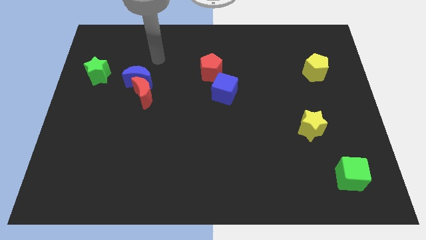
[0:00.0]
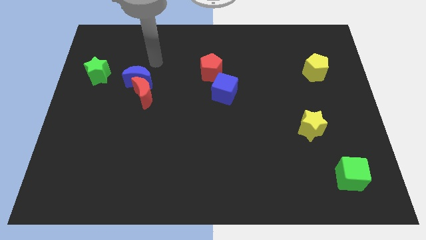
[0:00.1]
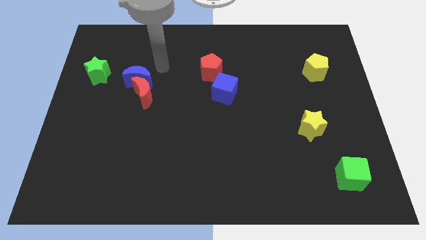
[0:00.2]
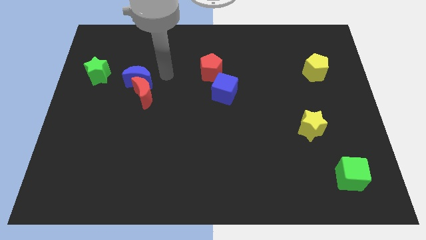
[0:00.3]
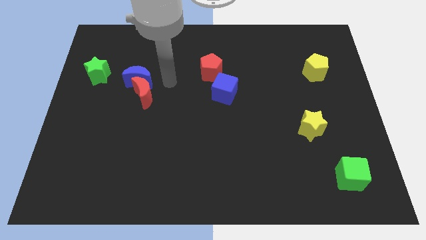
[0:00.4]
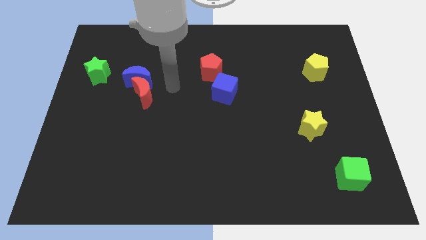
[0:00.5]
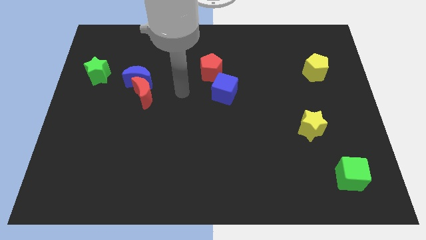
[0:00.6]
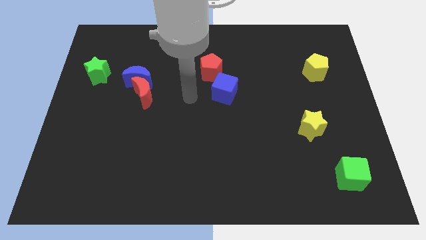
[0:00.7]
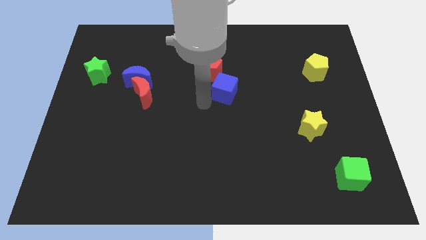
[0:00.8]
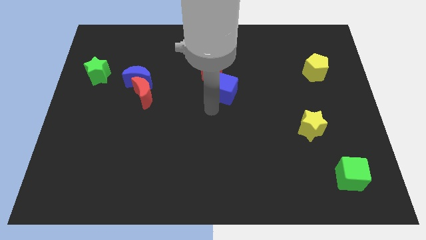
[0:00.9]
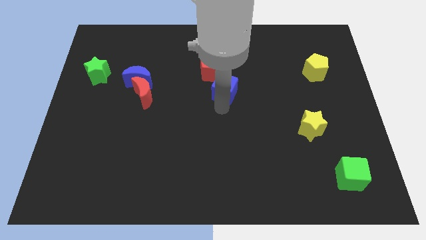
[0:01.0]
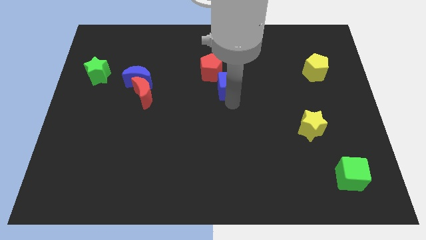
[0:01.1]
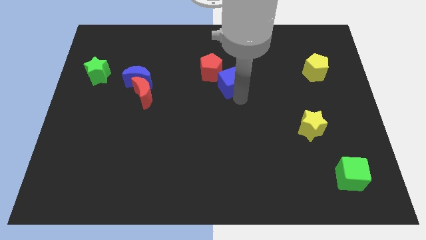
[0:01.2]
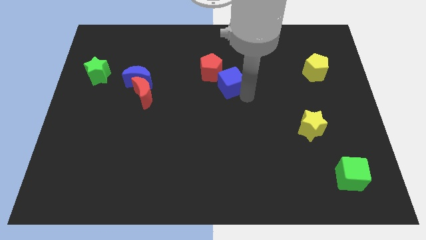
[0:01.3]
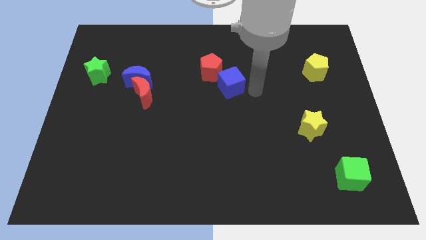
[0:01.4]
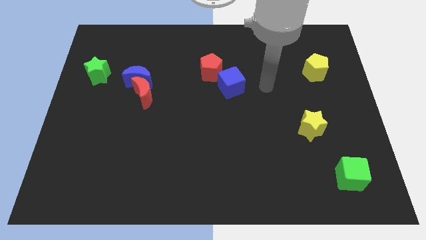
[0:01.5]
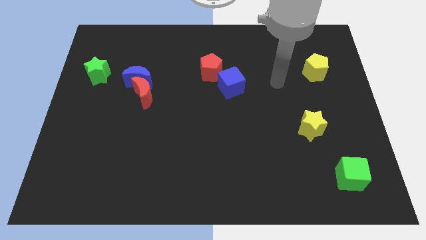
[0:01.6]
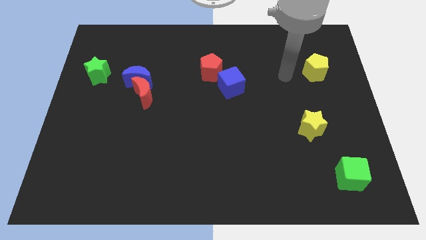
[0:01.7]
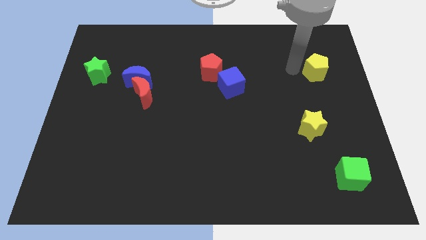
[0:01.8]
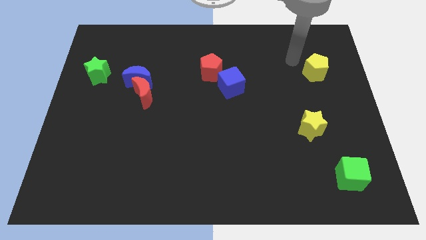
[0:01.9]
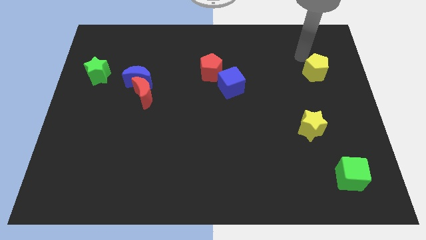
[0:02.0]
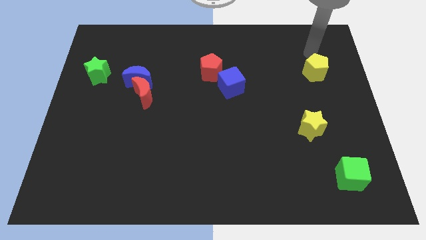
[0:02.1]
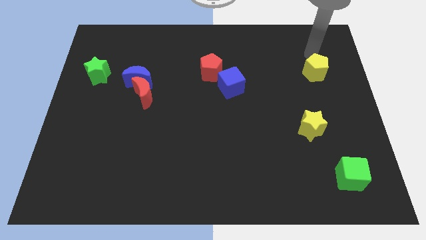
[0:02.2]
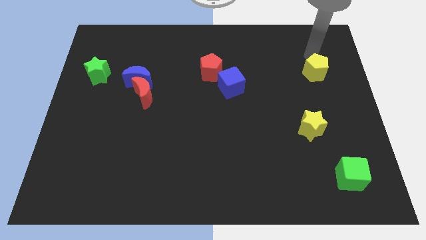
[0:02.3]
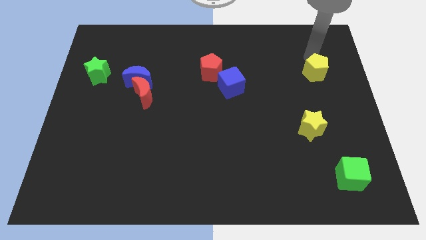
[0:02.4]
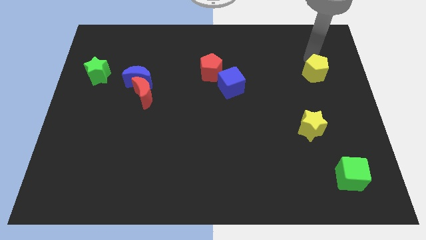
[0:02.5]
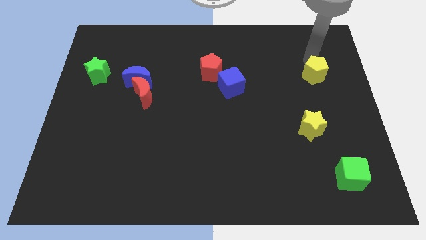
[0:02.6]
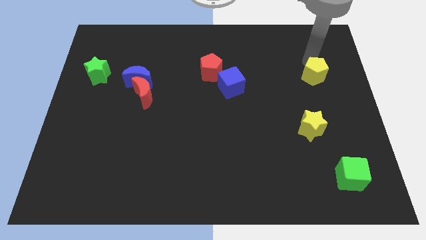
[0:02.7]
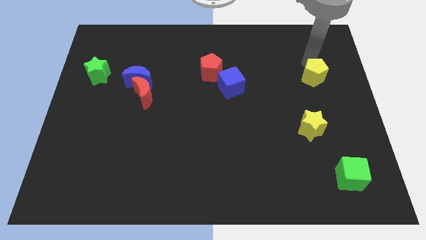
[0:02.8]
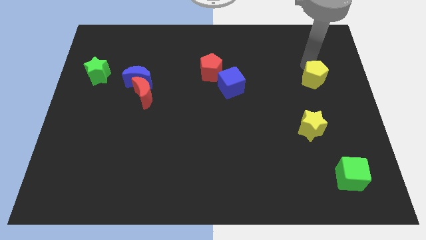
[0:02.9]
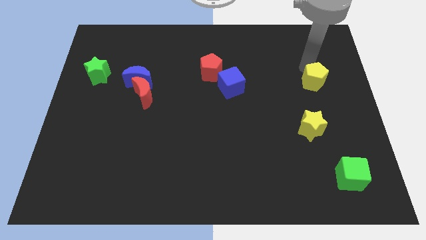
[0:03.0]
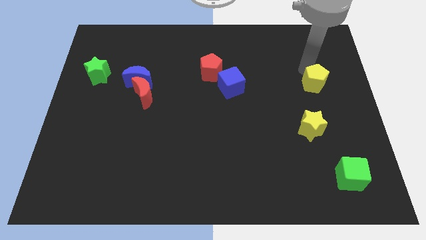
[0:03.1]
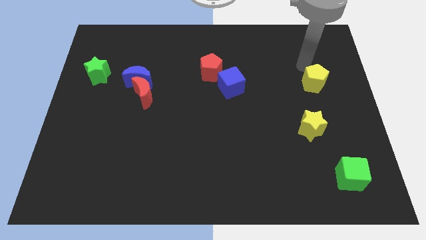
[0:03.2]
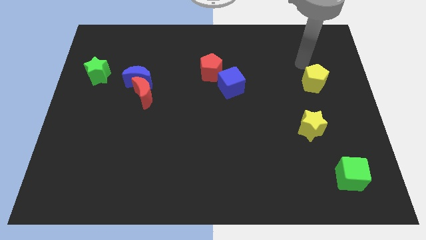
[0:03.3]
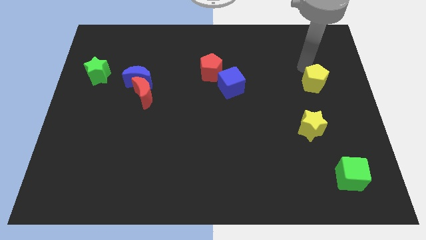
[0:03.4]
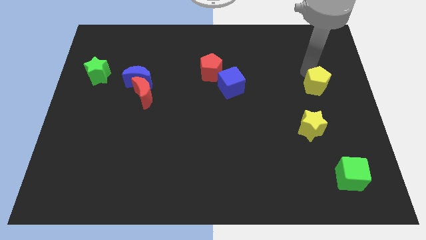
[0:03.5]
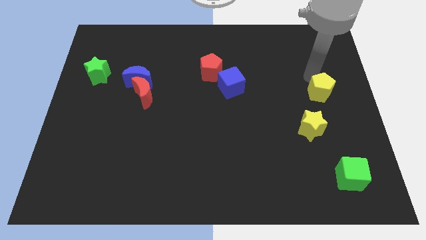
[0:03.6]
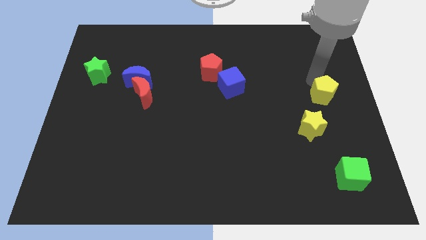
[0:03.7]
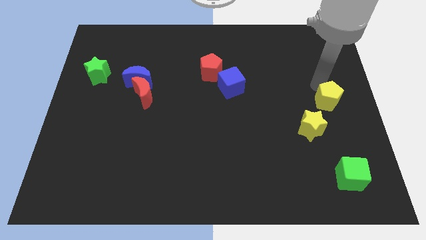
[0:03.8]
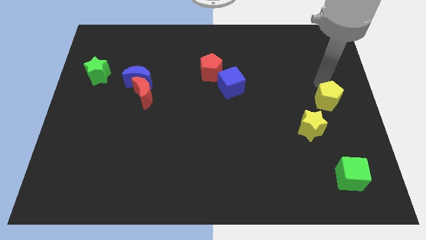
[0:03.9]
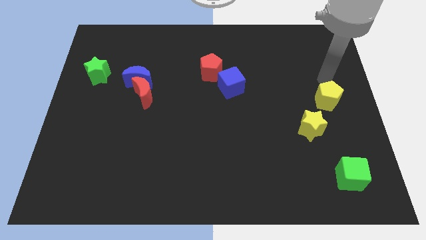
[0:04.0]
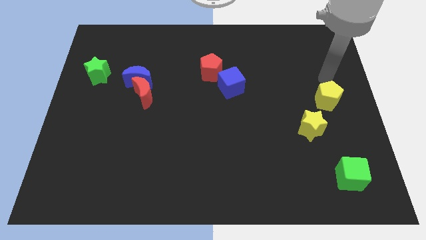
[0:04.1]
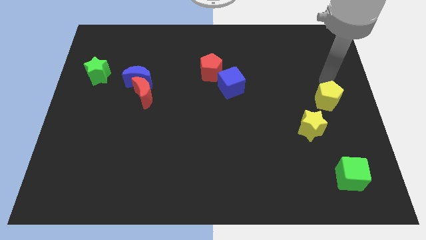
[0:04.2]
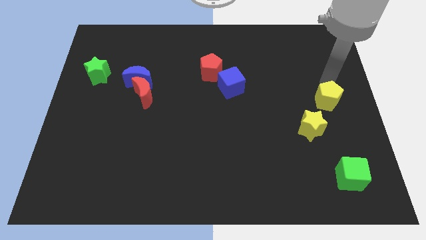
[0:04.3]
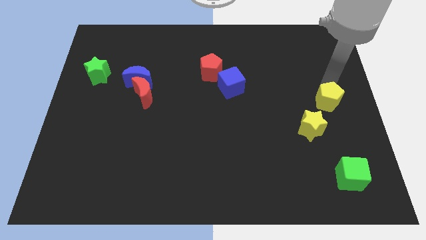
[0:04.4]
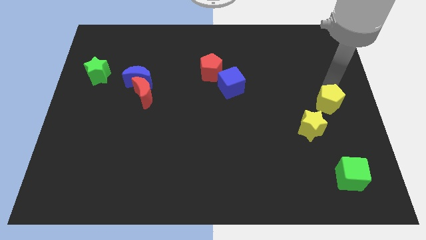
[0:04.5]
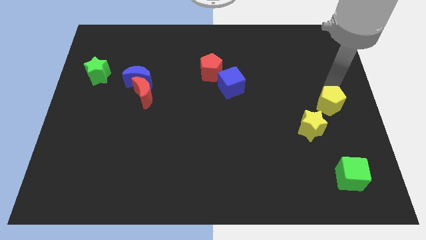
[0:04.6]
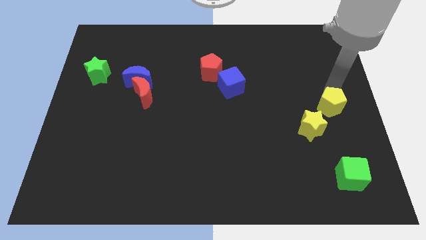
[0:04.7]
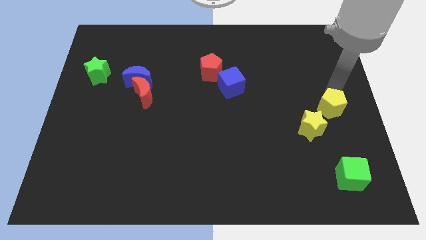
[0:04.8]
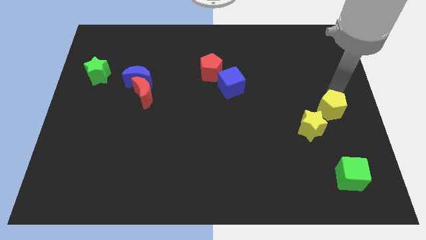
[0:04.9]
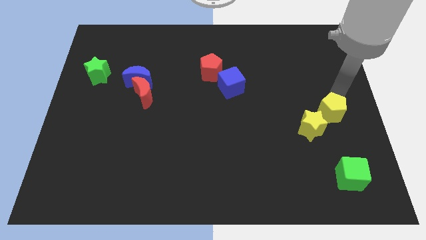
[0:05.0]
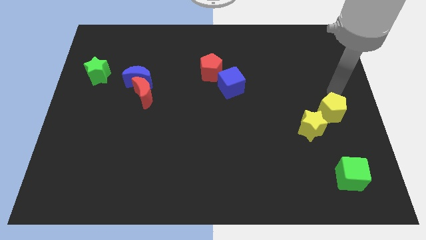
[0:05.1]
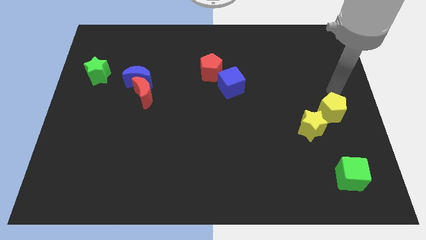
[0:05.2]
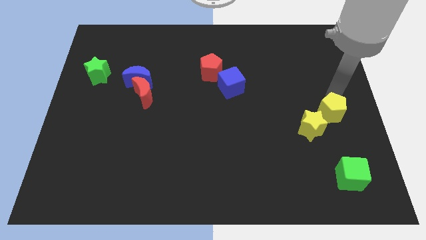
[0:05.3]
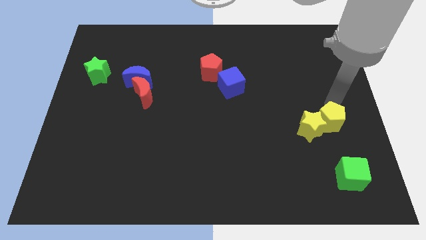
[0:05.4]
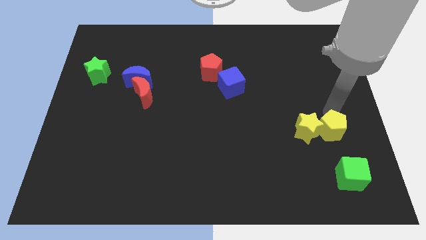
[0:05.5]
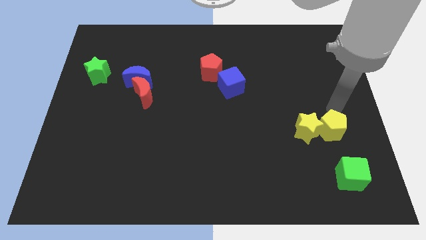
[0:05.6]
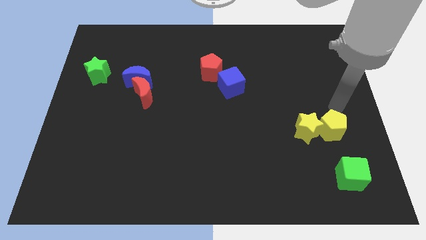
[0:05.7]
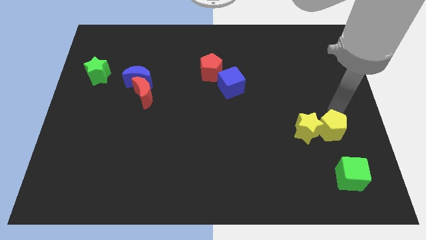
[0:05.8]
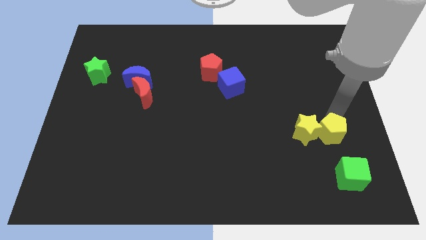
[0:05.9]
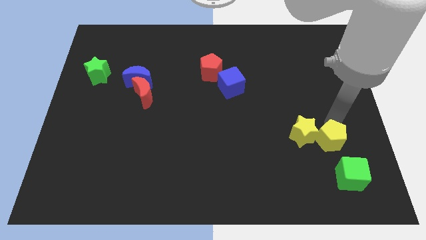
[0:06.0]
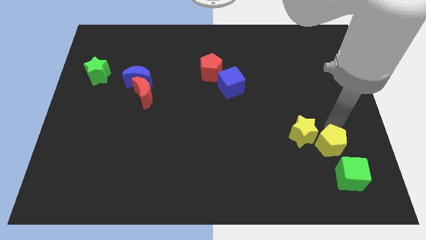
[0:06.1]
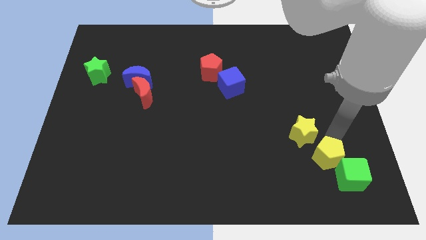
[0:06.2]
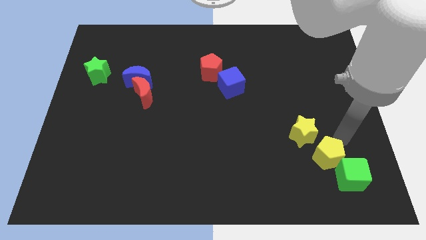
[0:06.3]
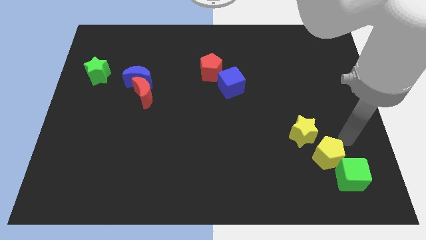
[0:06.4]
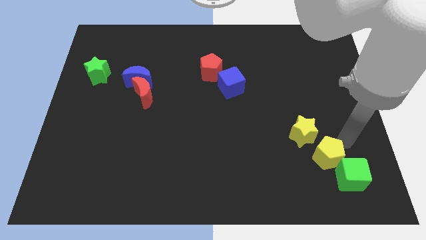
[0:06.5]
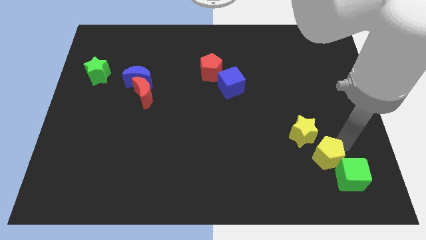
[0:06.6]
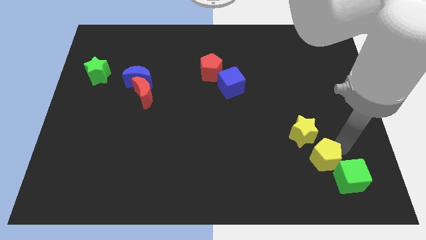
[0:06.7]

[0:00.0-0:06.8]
move the yellow pentagon left of the green cube
